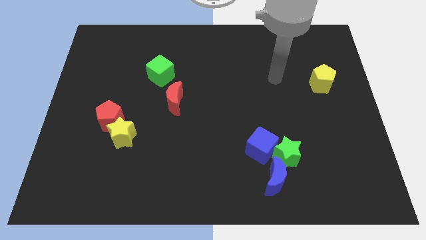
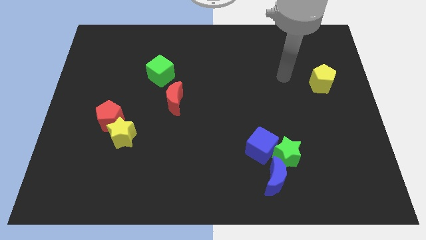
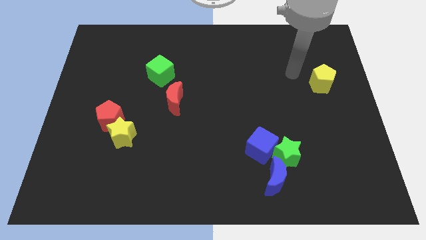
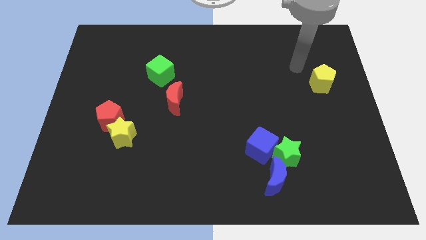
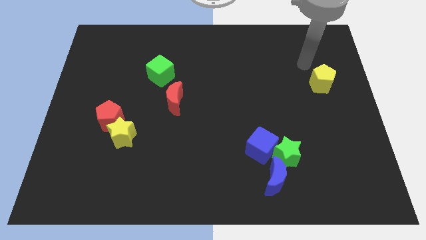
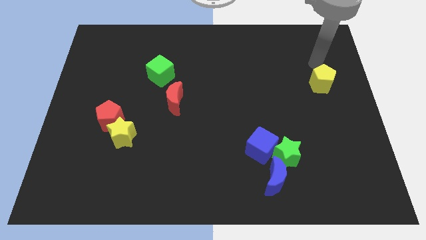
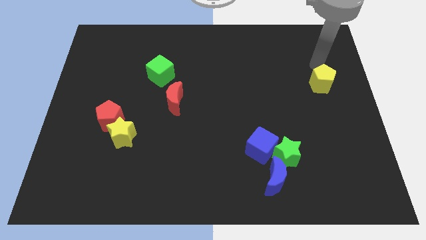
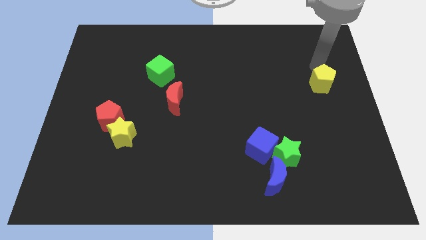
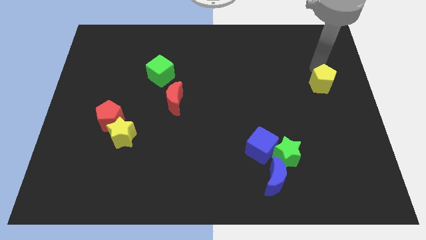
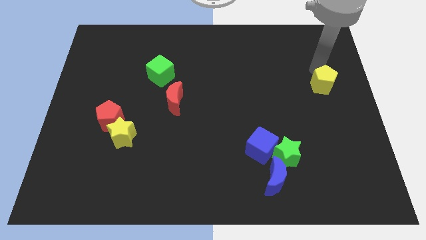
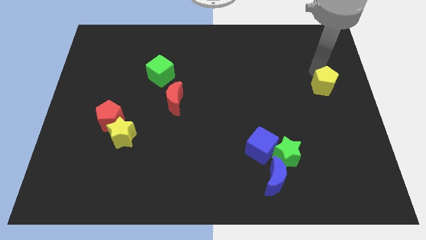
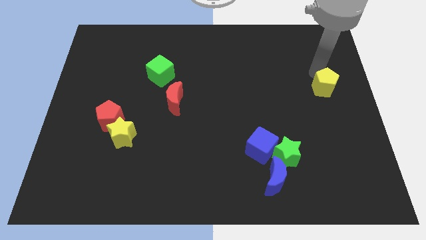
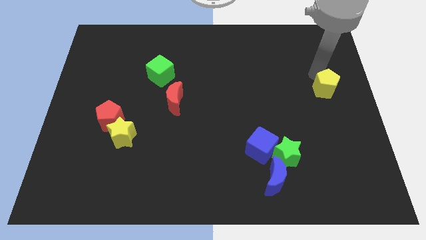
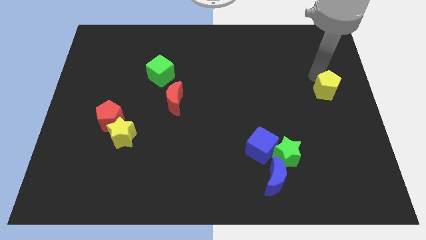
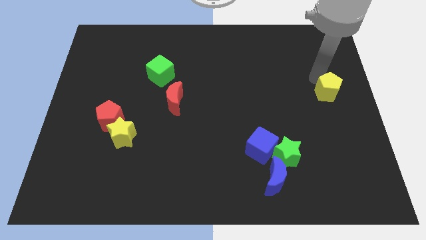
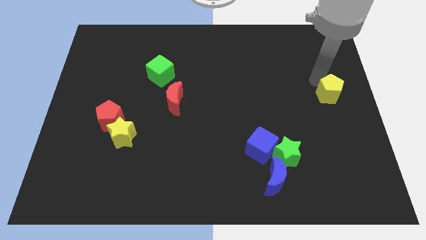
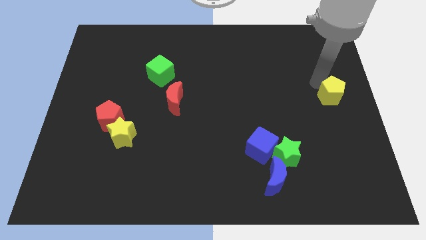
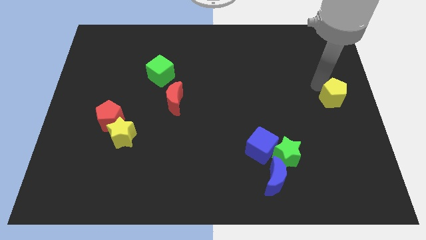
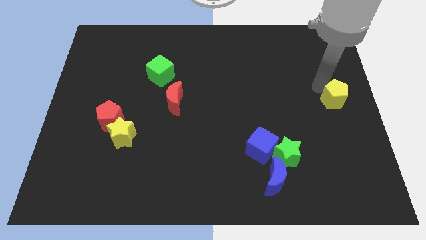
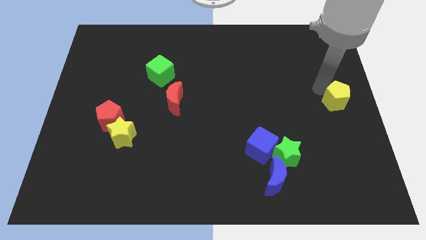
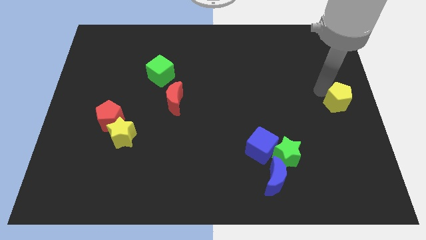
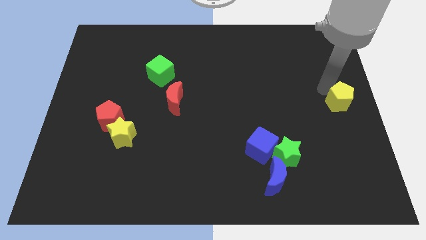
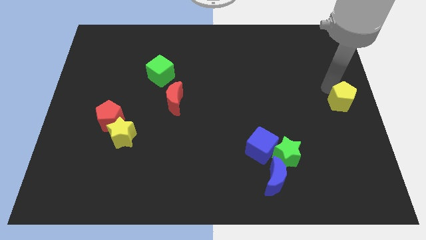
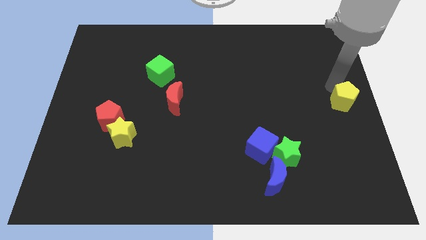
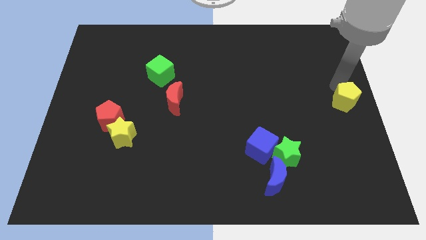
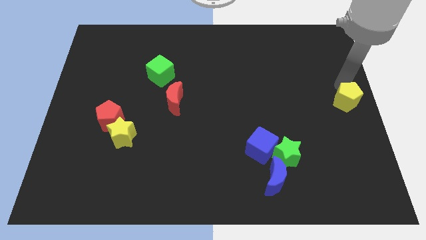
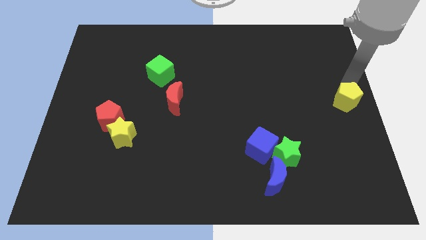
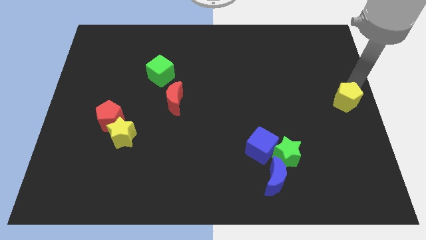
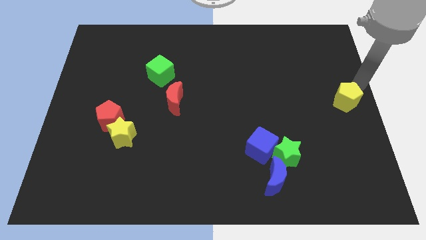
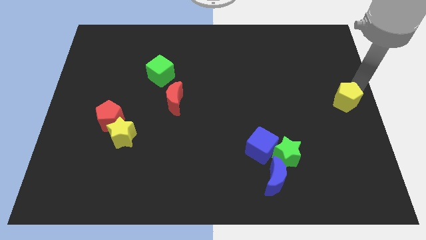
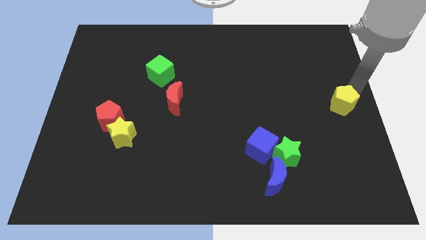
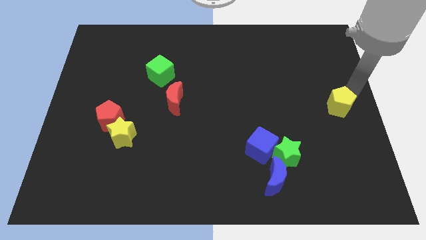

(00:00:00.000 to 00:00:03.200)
slide the yellow pentagon down a little

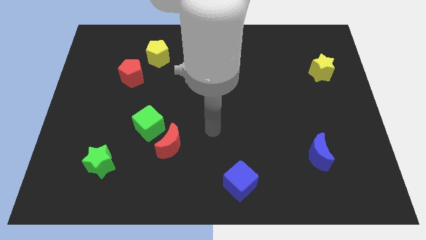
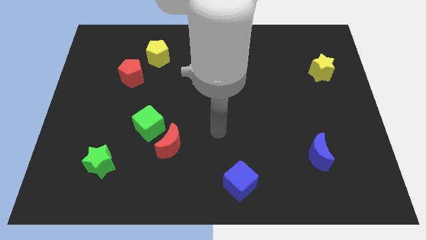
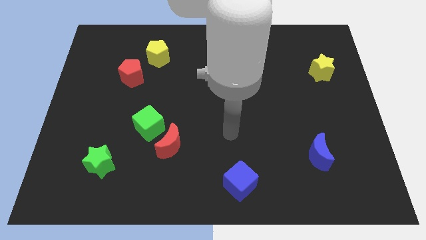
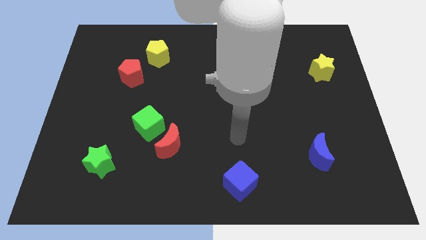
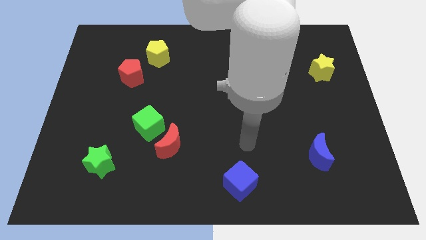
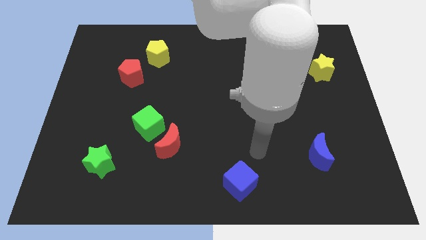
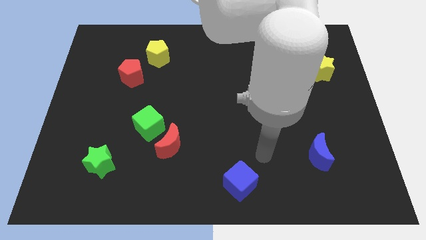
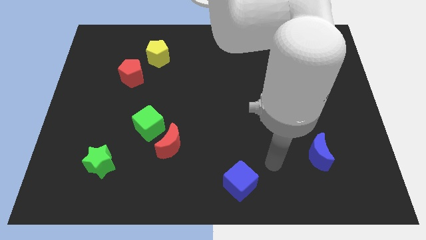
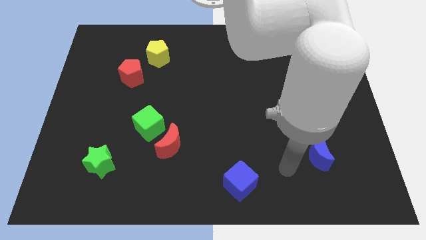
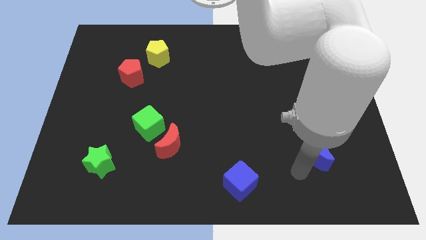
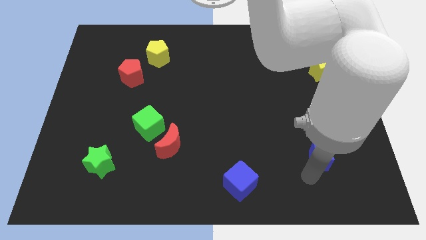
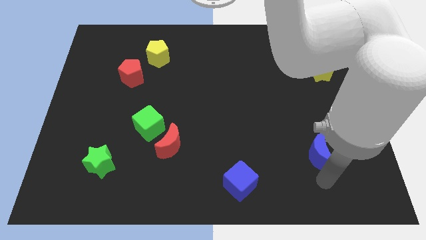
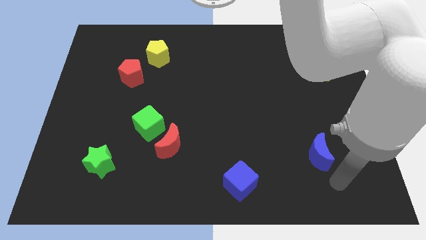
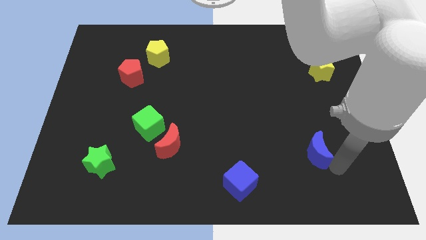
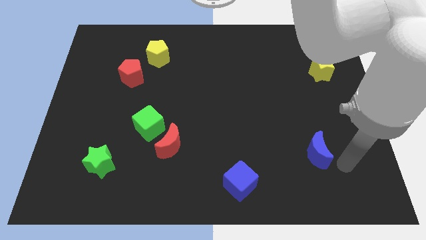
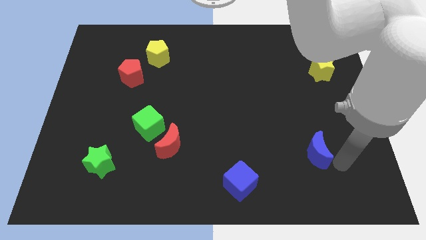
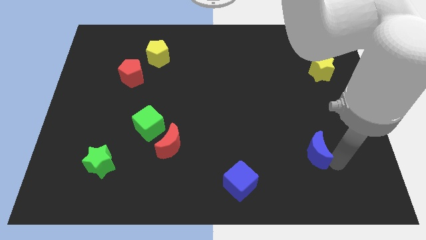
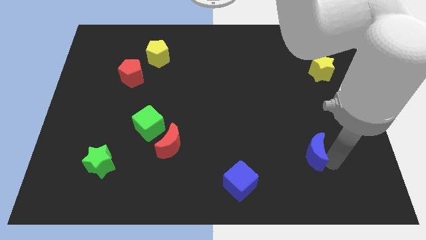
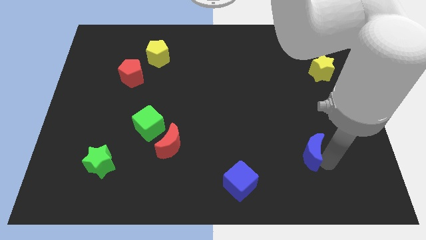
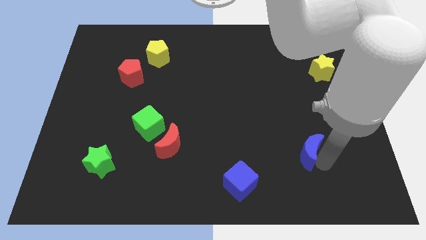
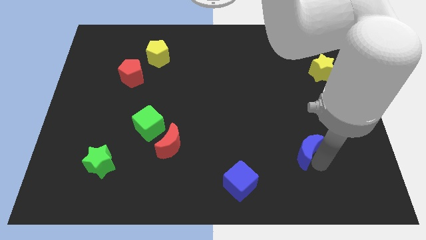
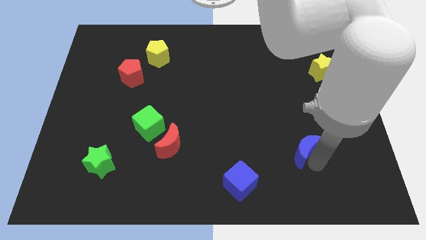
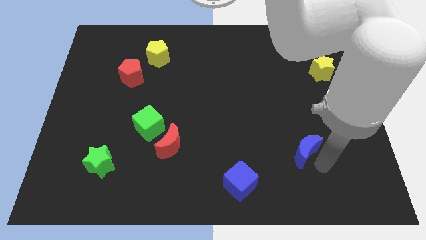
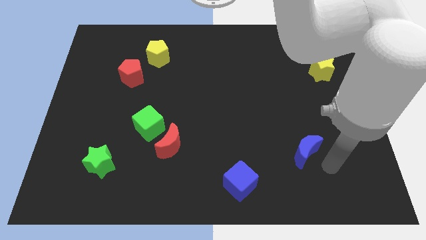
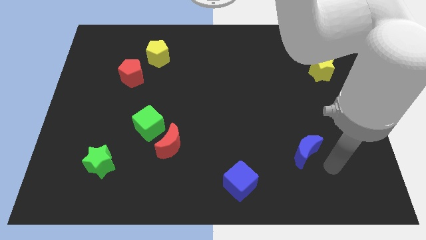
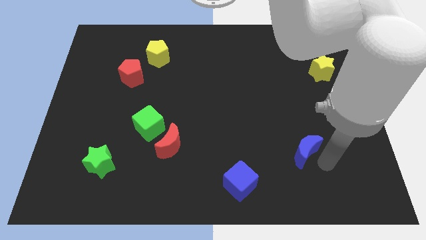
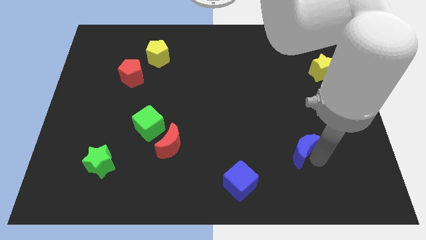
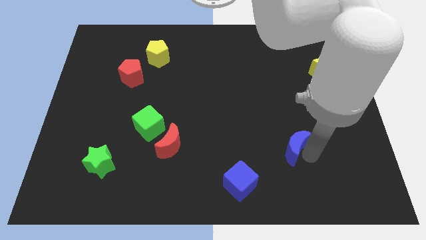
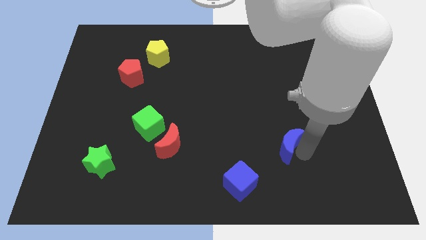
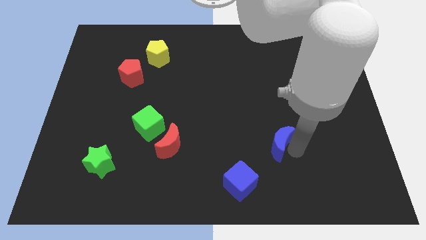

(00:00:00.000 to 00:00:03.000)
slide the blue moon upwards and then left a little bit

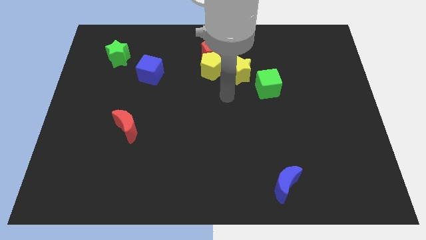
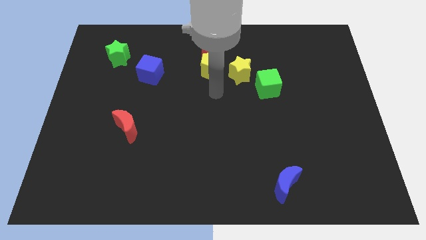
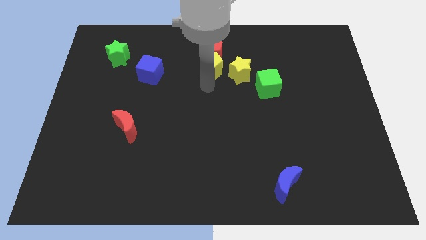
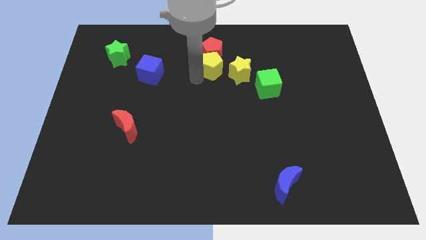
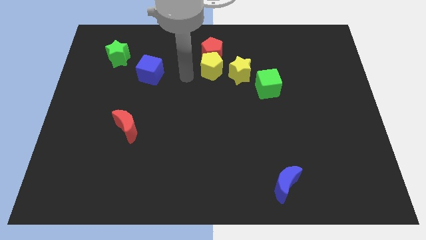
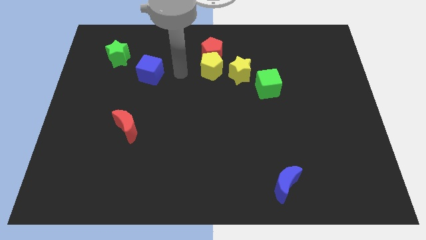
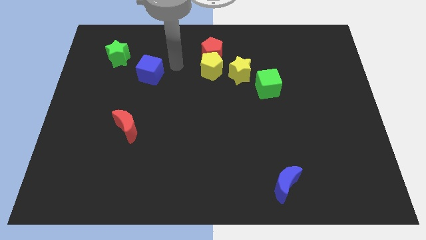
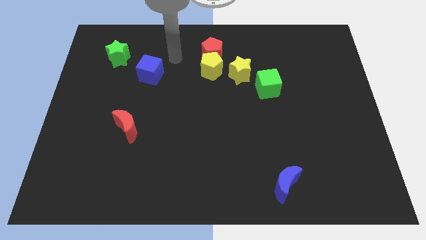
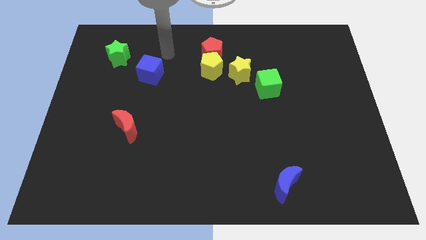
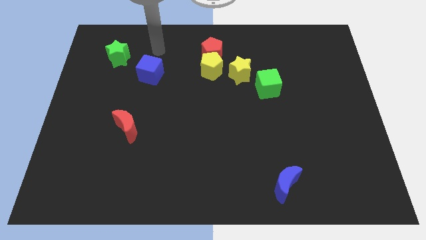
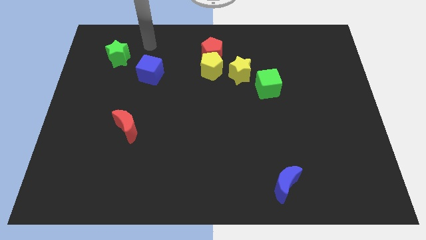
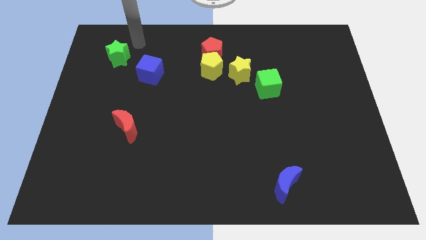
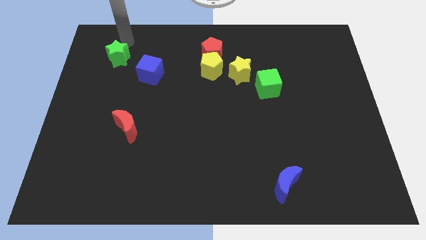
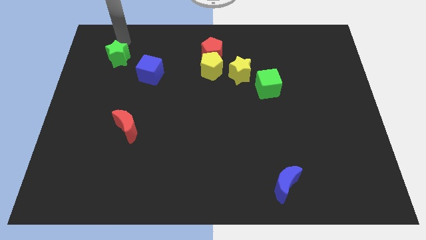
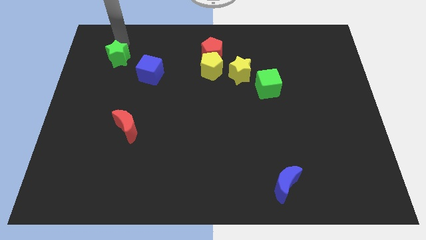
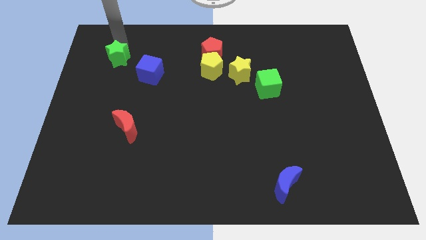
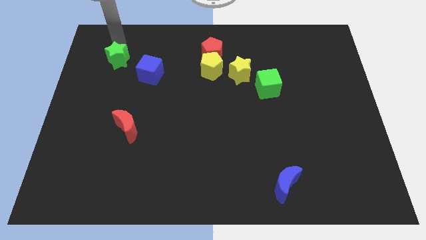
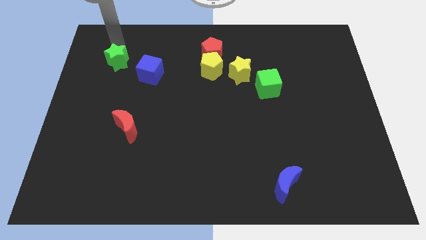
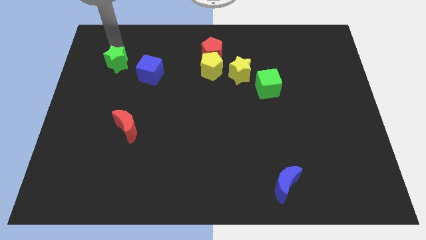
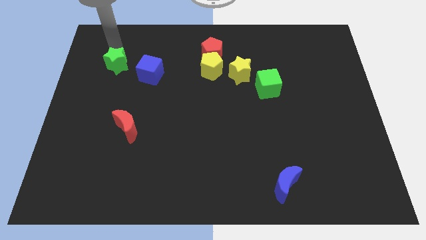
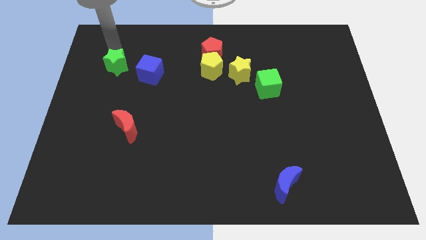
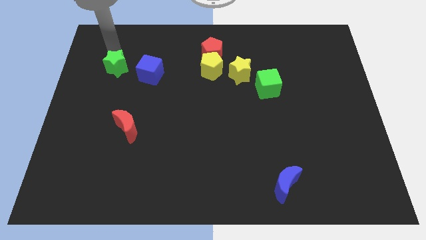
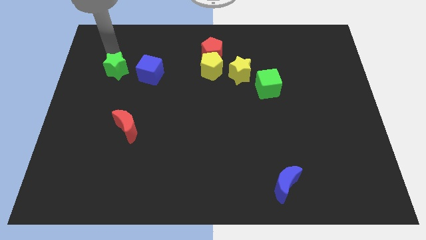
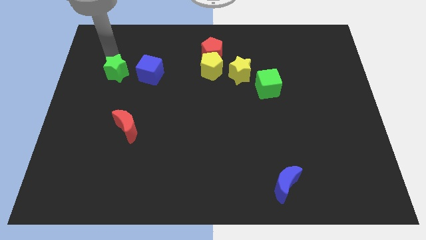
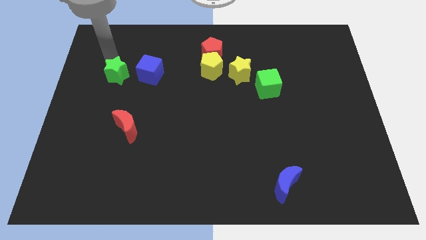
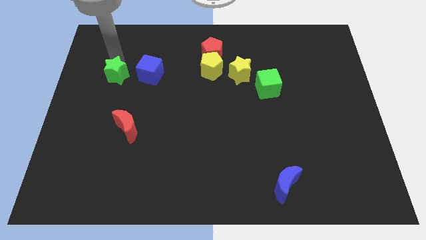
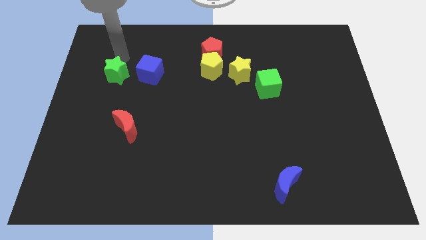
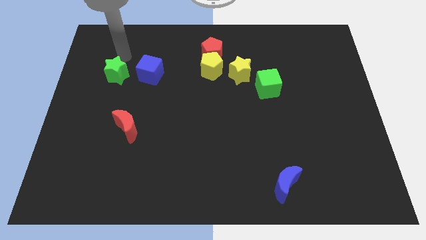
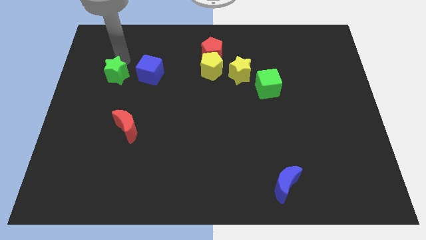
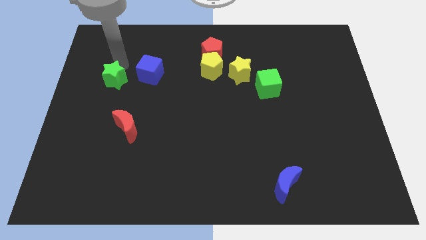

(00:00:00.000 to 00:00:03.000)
slightly move the green star downwards
